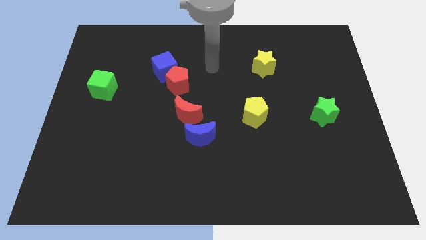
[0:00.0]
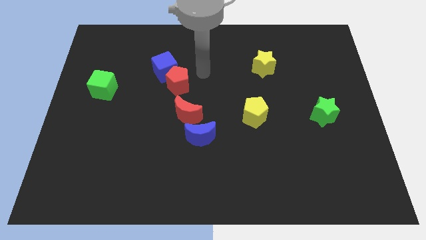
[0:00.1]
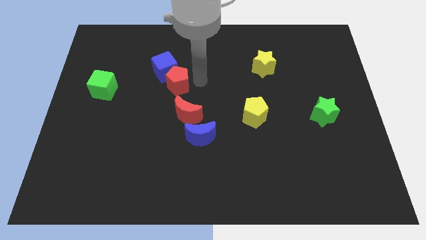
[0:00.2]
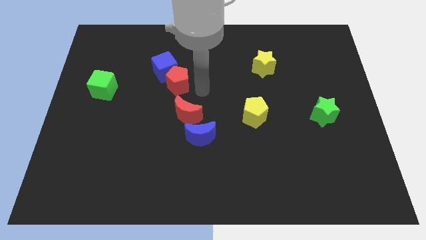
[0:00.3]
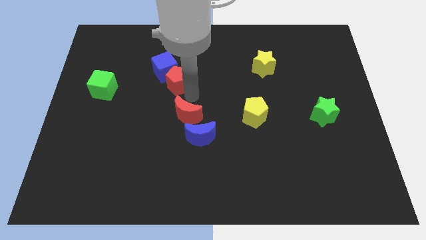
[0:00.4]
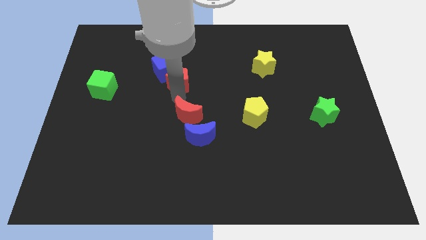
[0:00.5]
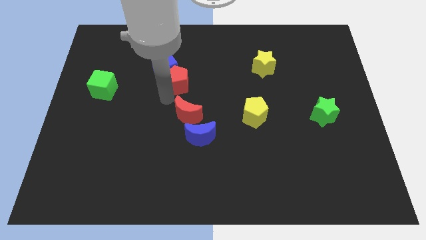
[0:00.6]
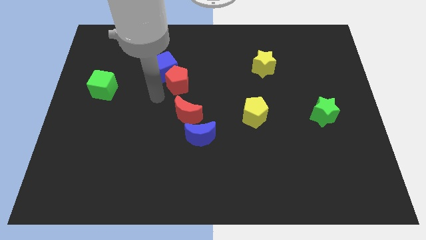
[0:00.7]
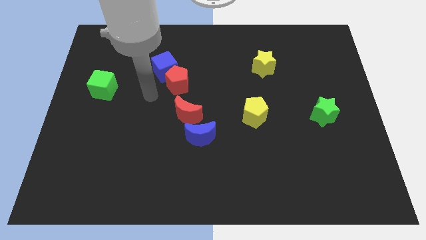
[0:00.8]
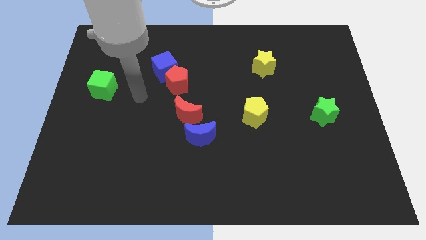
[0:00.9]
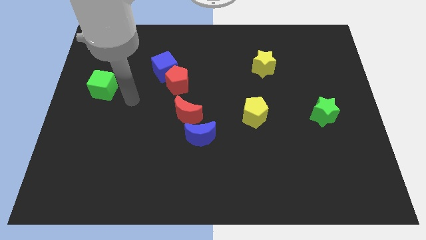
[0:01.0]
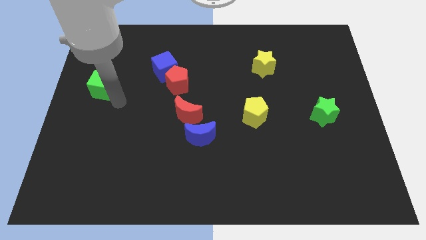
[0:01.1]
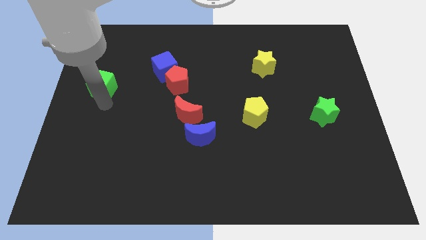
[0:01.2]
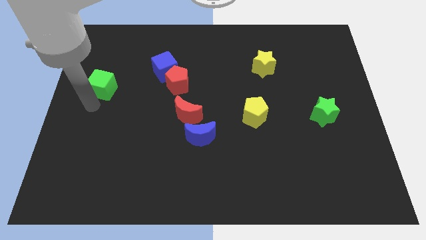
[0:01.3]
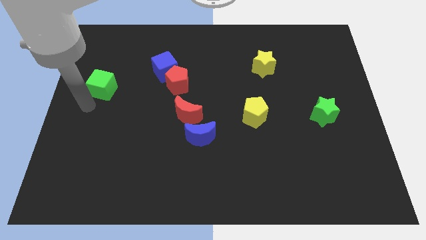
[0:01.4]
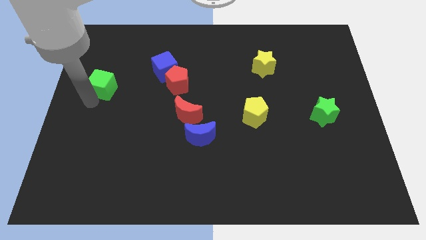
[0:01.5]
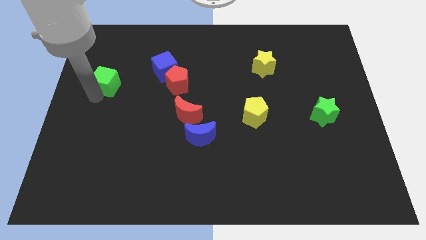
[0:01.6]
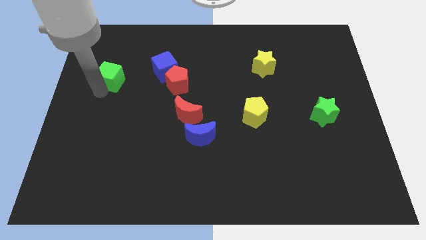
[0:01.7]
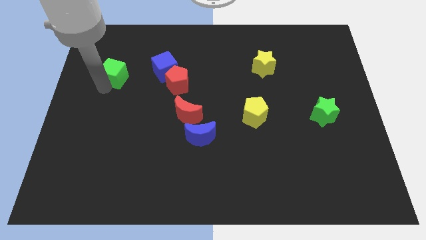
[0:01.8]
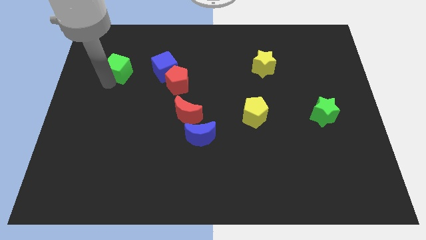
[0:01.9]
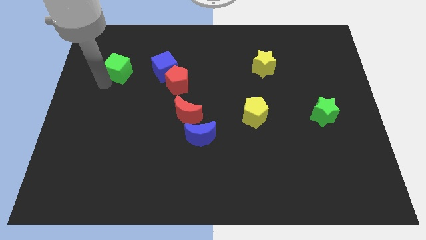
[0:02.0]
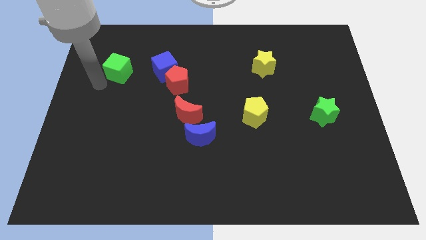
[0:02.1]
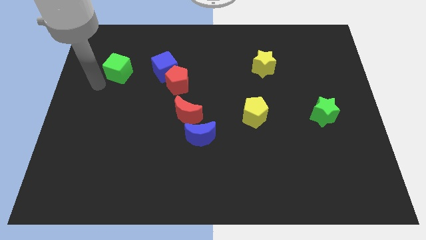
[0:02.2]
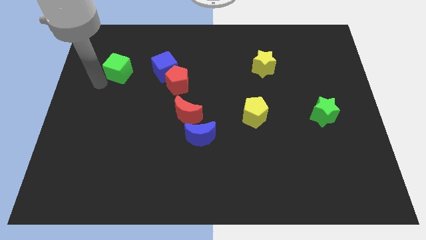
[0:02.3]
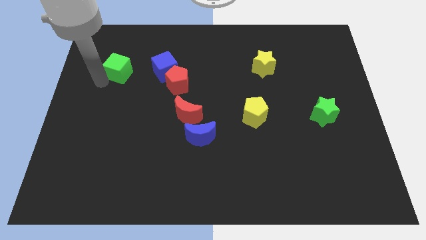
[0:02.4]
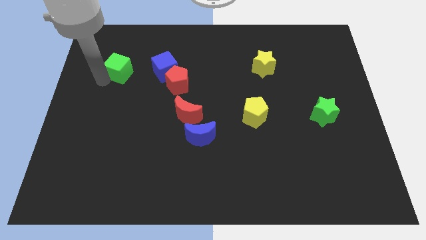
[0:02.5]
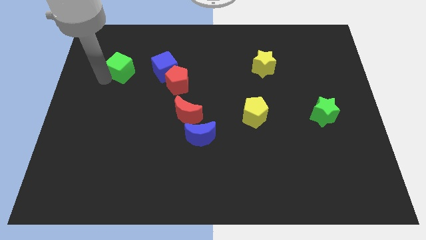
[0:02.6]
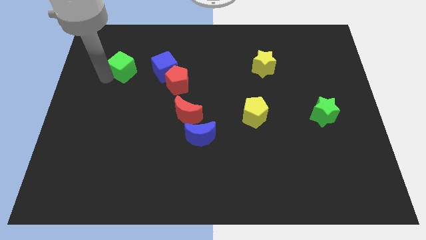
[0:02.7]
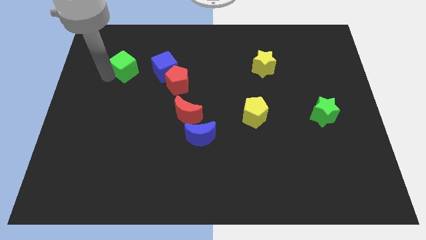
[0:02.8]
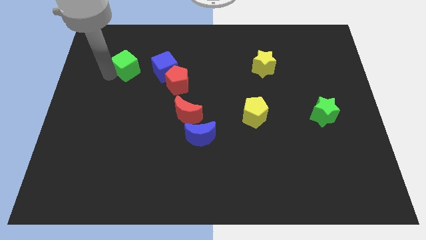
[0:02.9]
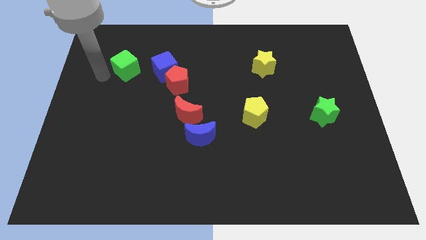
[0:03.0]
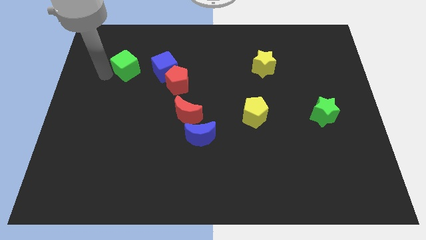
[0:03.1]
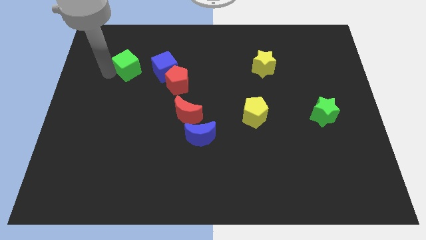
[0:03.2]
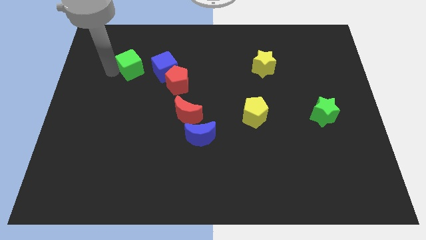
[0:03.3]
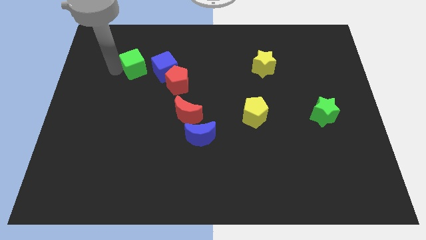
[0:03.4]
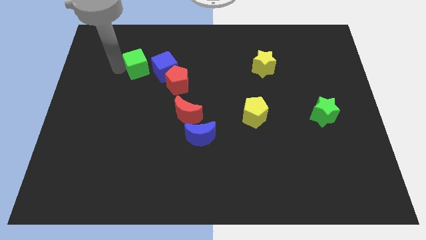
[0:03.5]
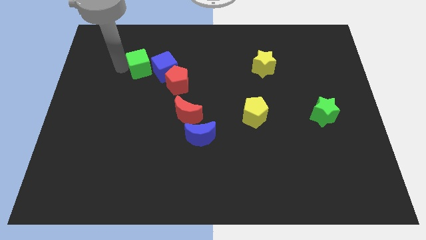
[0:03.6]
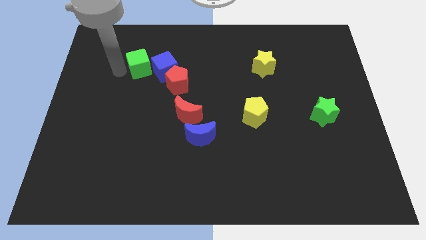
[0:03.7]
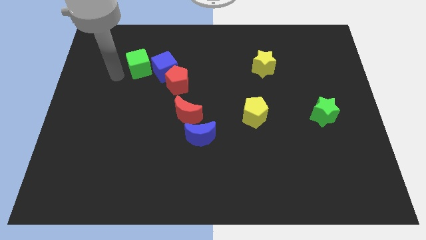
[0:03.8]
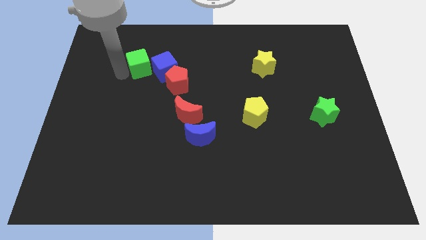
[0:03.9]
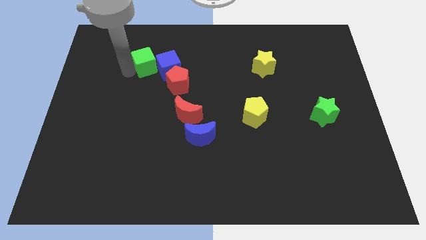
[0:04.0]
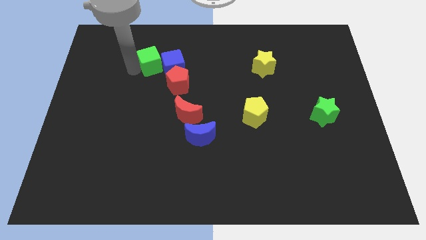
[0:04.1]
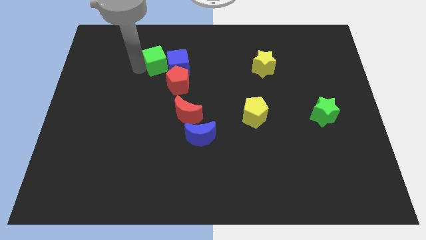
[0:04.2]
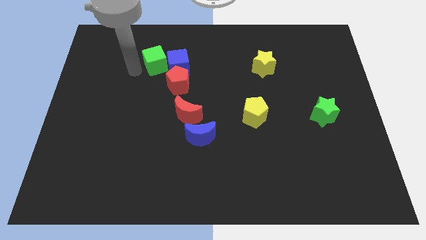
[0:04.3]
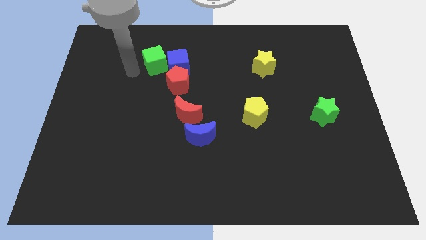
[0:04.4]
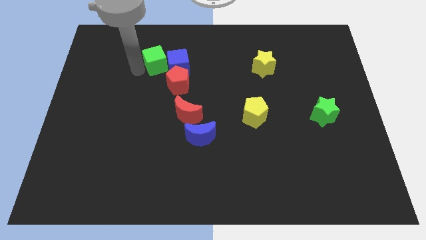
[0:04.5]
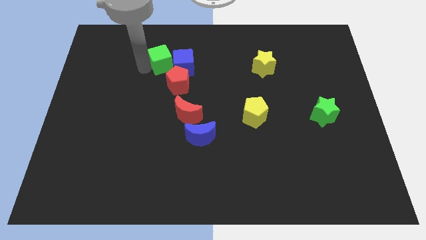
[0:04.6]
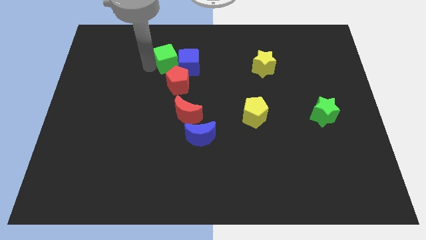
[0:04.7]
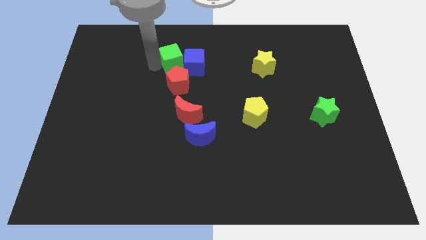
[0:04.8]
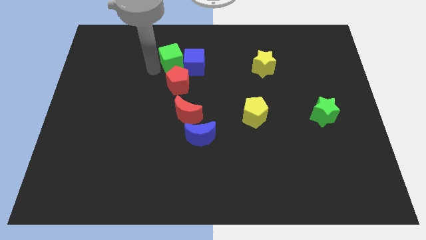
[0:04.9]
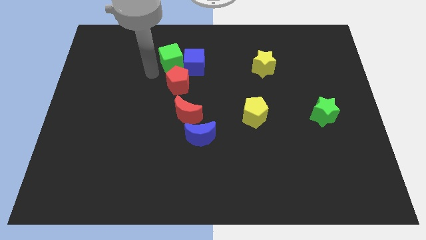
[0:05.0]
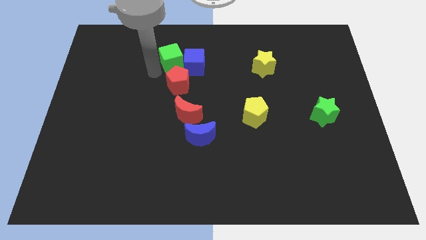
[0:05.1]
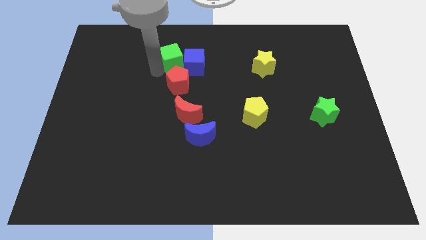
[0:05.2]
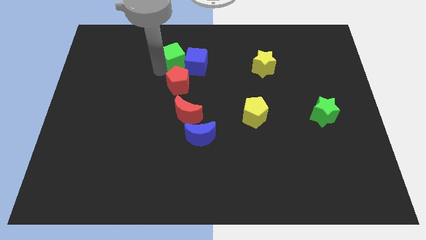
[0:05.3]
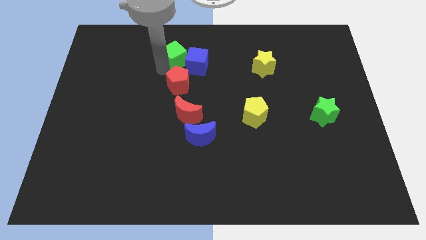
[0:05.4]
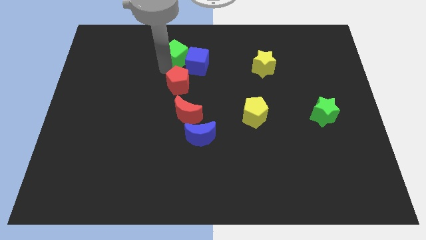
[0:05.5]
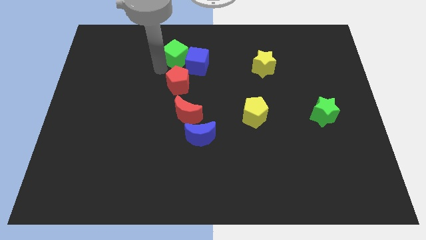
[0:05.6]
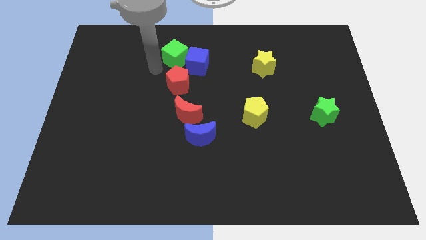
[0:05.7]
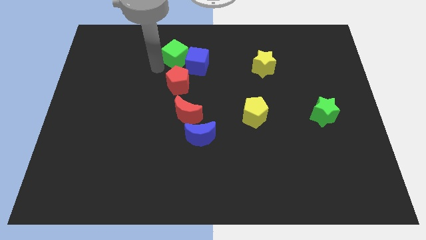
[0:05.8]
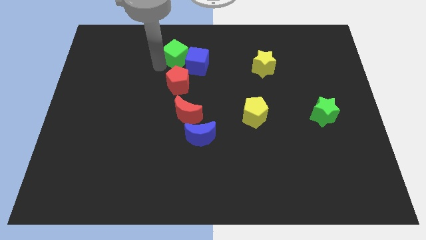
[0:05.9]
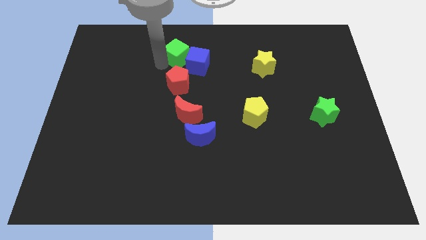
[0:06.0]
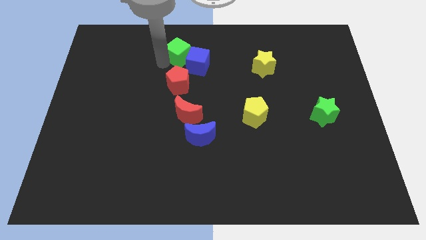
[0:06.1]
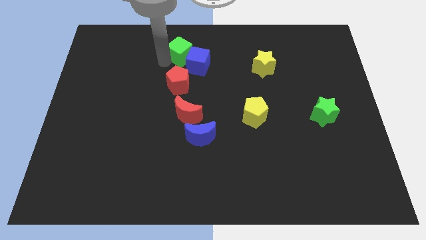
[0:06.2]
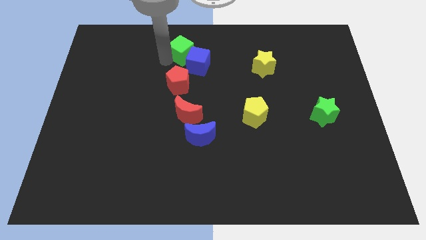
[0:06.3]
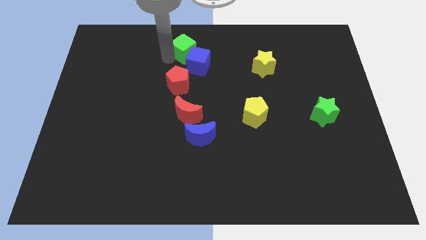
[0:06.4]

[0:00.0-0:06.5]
put the green cube to the top

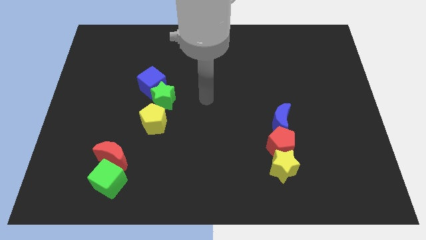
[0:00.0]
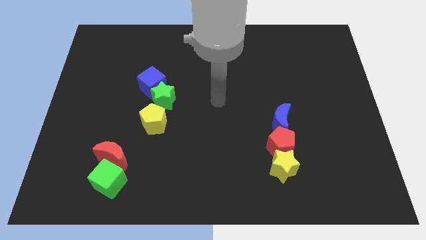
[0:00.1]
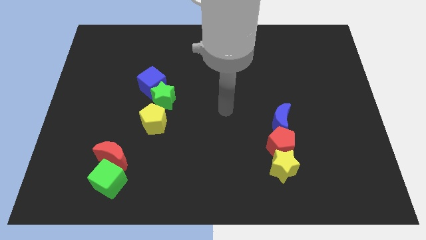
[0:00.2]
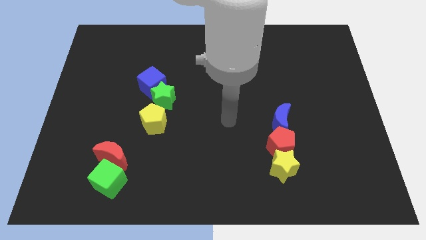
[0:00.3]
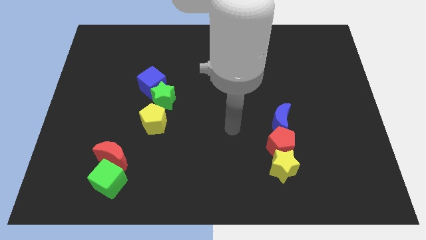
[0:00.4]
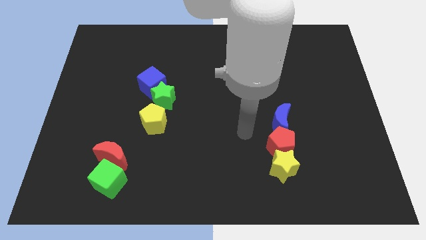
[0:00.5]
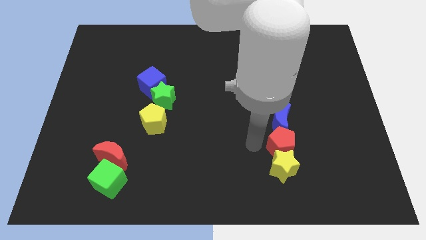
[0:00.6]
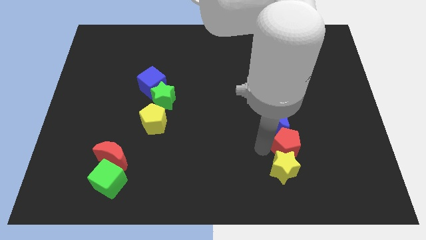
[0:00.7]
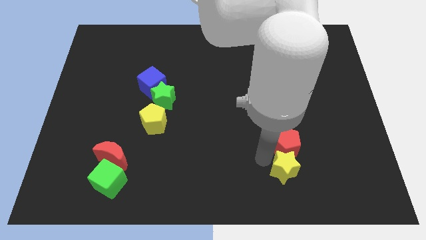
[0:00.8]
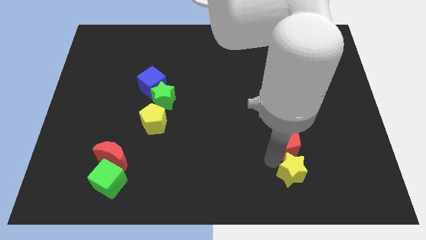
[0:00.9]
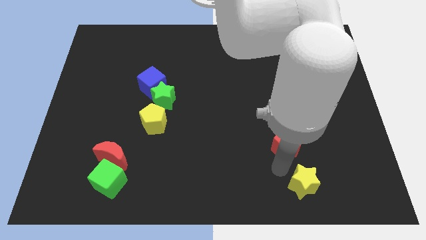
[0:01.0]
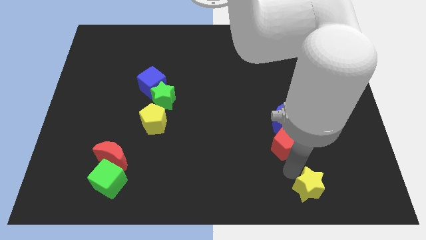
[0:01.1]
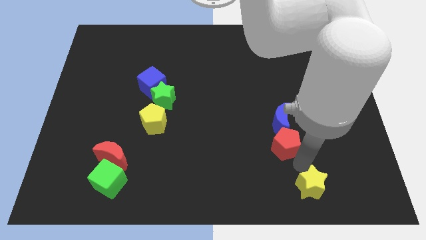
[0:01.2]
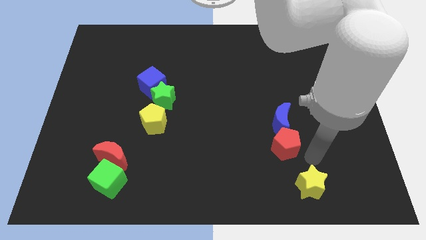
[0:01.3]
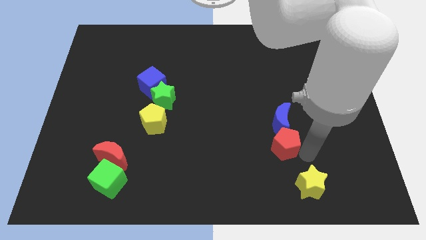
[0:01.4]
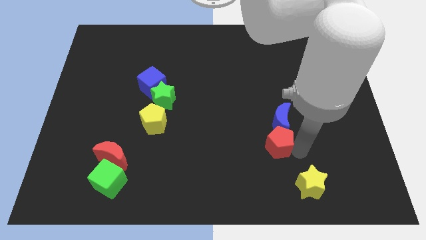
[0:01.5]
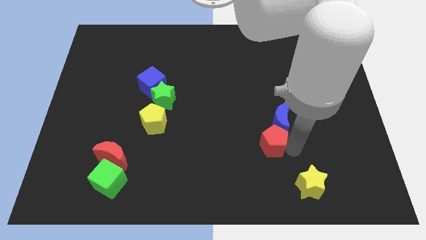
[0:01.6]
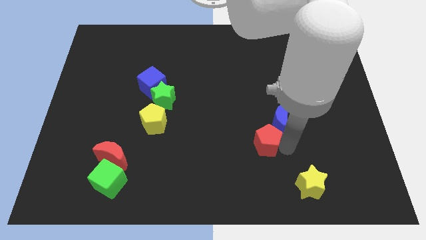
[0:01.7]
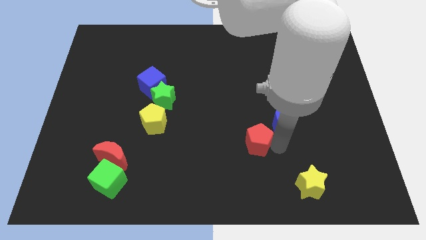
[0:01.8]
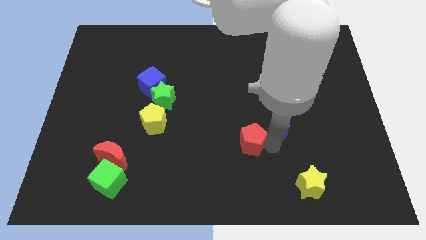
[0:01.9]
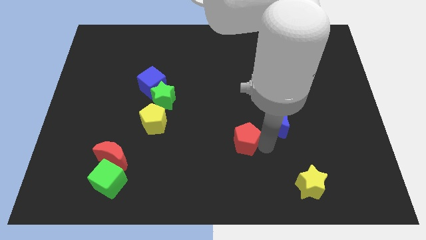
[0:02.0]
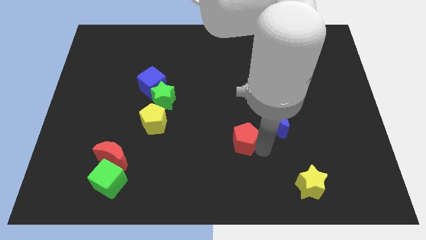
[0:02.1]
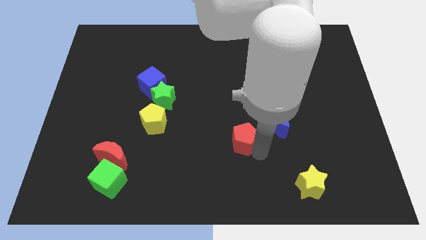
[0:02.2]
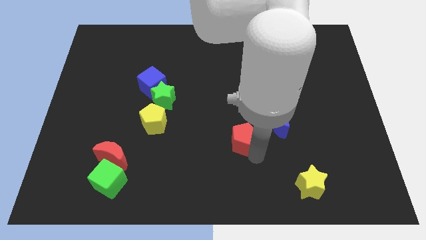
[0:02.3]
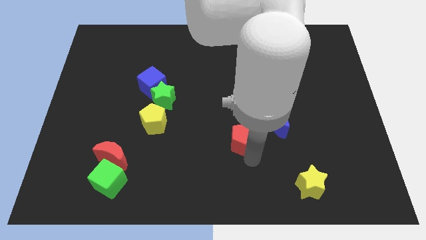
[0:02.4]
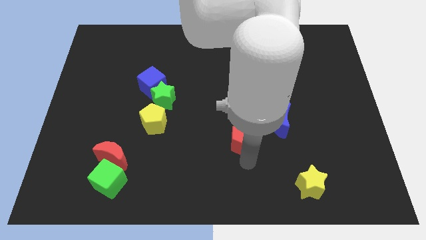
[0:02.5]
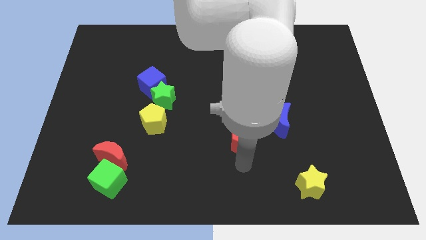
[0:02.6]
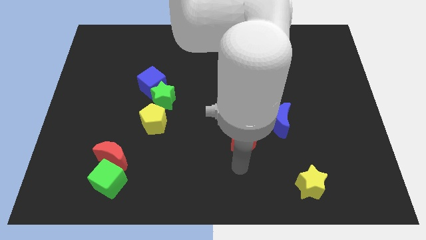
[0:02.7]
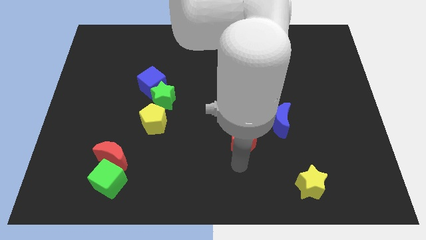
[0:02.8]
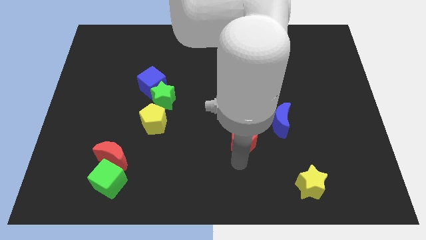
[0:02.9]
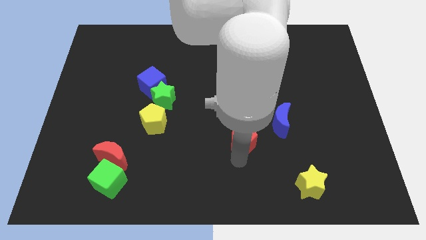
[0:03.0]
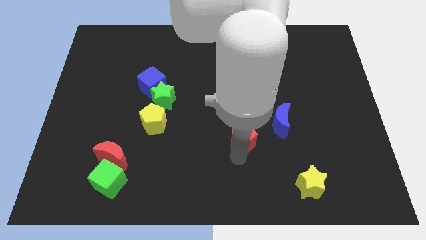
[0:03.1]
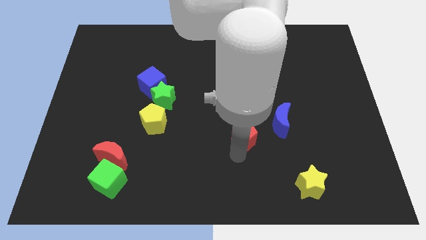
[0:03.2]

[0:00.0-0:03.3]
put the red pentagon to the center of the board
